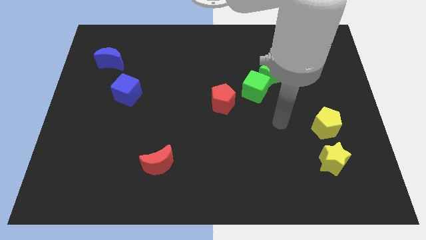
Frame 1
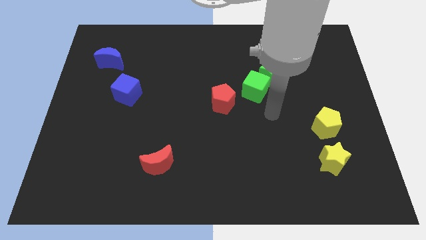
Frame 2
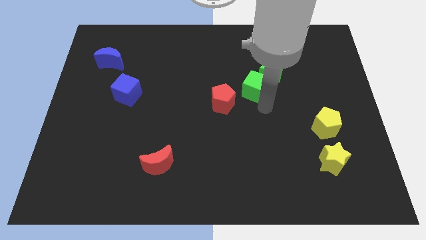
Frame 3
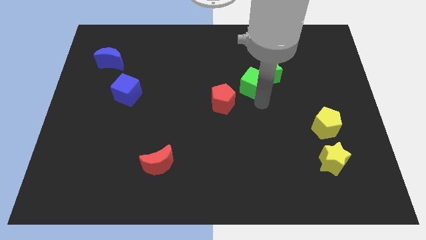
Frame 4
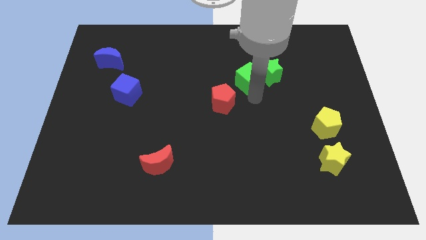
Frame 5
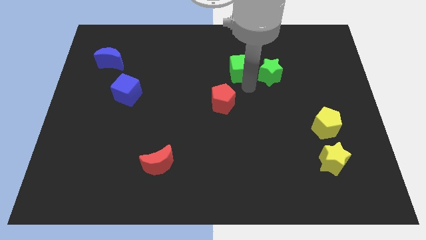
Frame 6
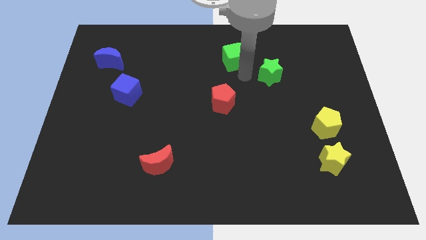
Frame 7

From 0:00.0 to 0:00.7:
separate the green star from the green cube

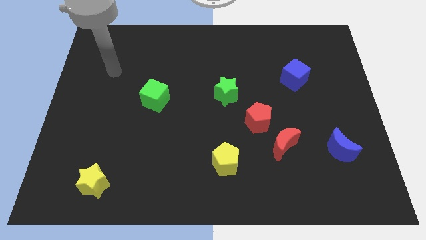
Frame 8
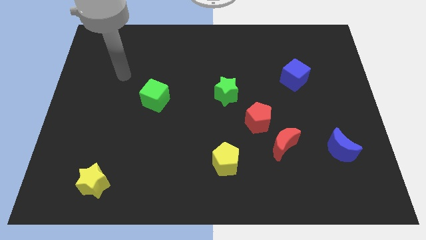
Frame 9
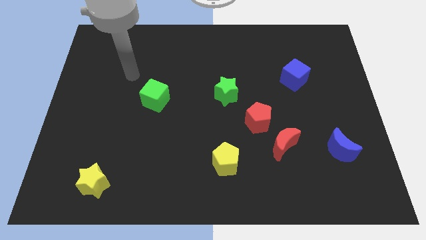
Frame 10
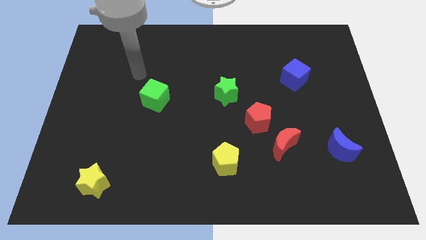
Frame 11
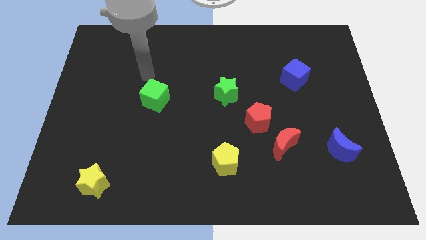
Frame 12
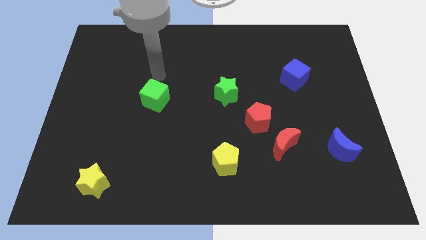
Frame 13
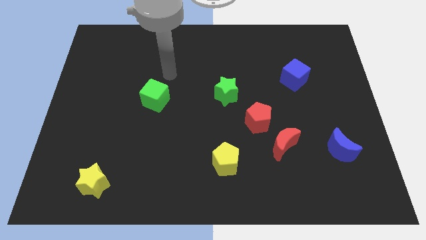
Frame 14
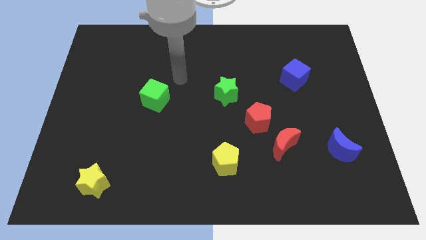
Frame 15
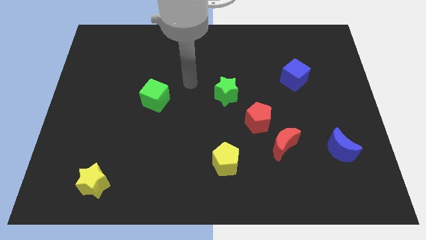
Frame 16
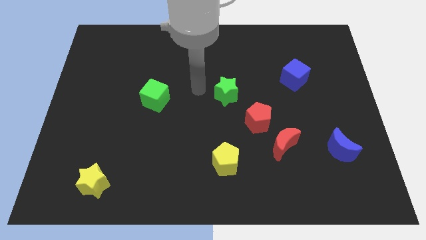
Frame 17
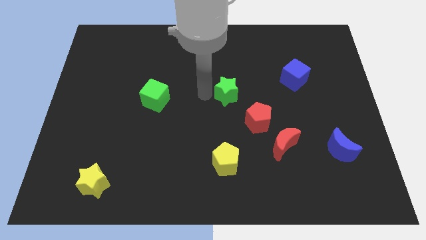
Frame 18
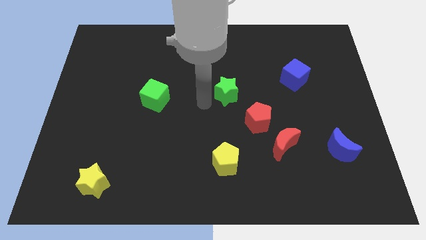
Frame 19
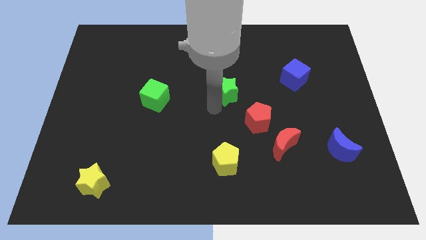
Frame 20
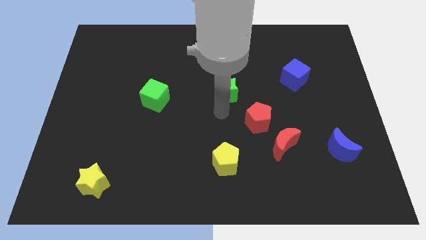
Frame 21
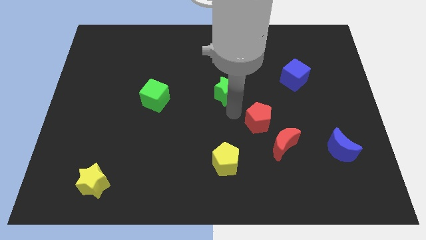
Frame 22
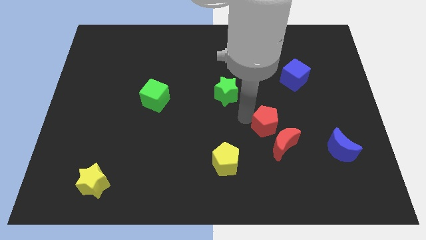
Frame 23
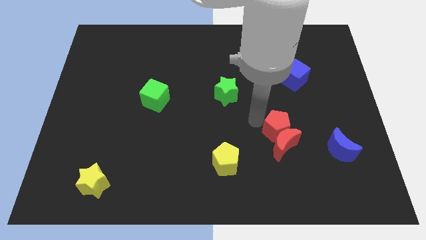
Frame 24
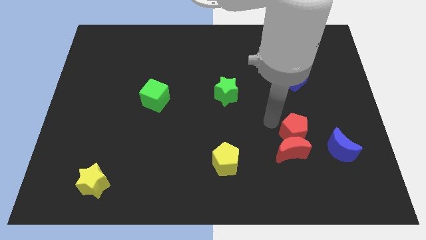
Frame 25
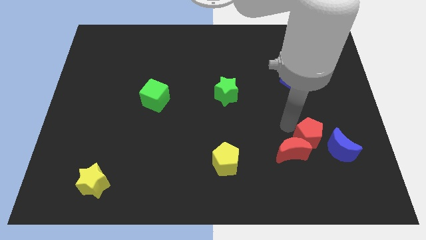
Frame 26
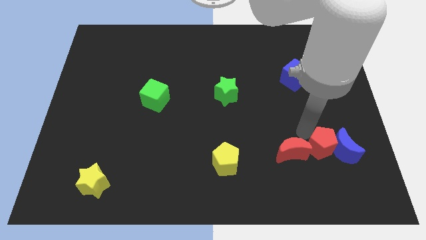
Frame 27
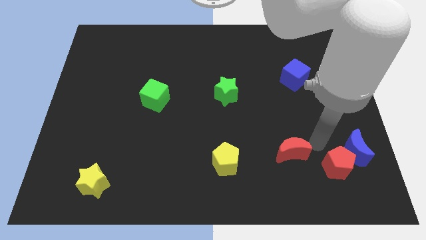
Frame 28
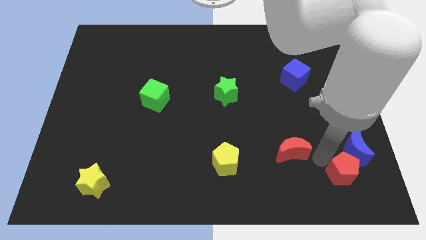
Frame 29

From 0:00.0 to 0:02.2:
separate the red moon from the red pentagon

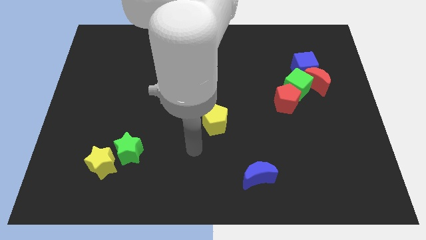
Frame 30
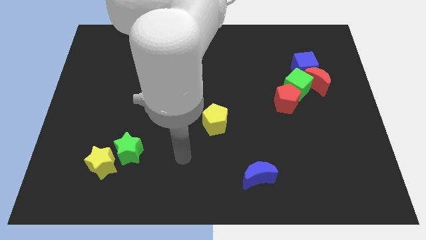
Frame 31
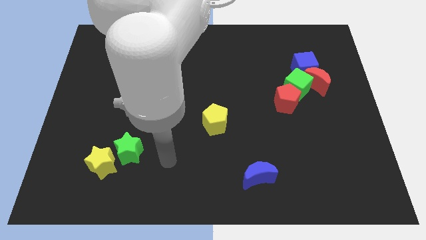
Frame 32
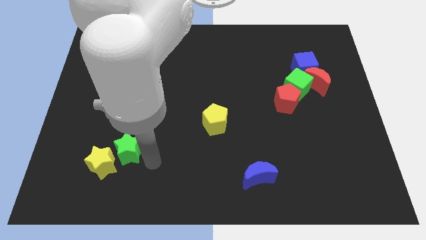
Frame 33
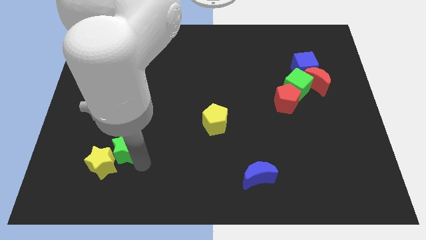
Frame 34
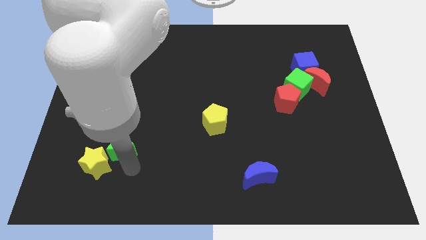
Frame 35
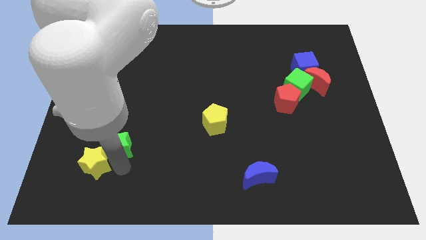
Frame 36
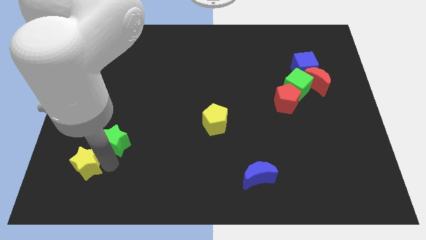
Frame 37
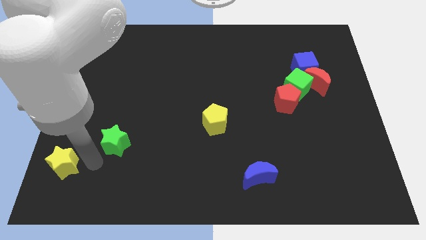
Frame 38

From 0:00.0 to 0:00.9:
move the green star away from the yellow star

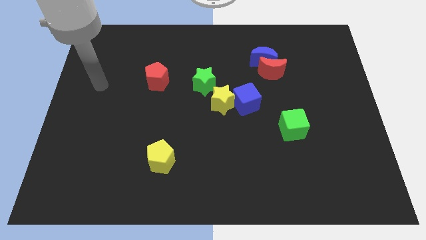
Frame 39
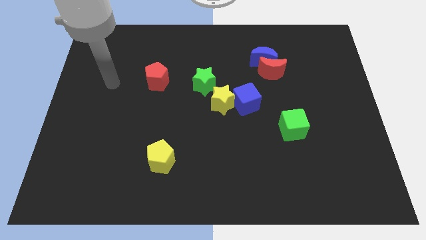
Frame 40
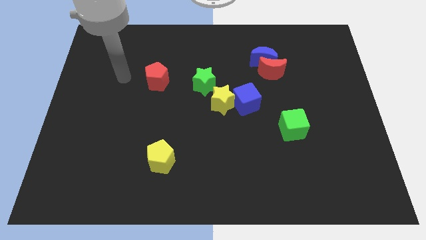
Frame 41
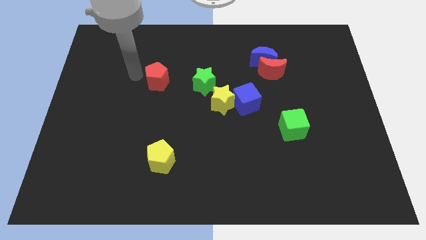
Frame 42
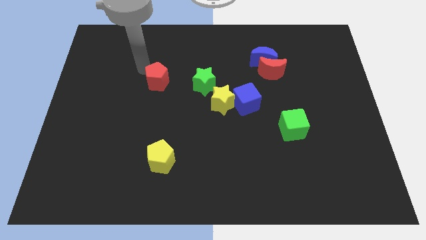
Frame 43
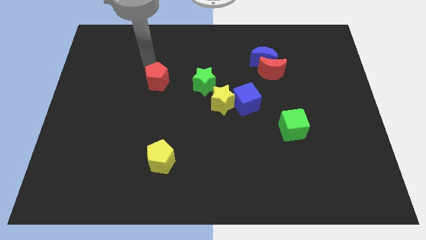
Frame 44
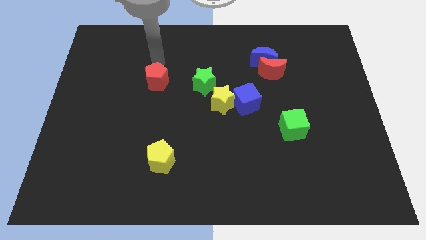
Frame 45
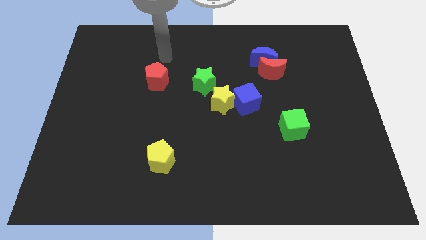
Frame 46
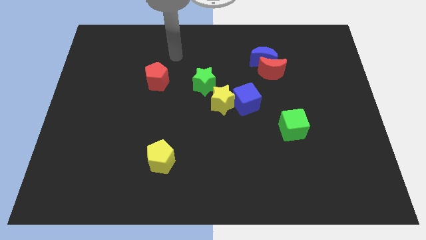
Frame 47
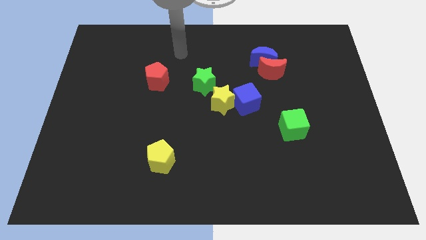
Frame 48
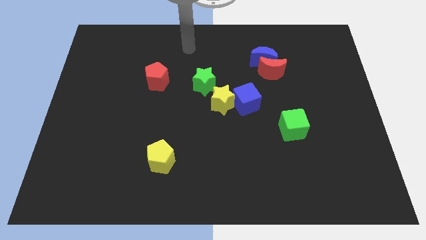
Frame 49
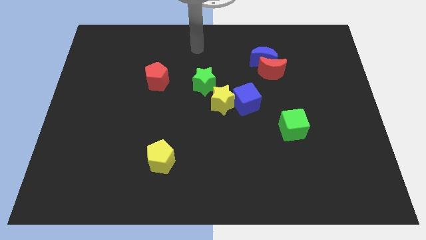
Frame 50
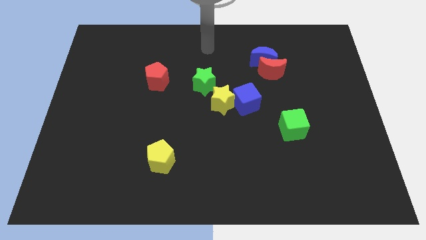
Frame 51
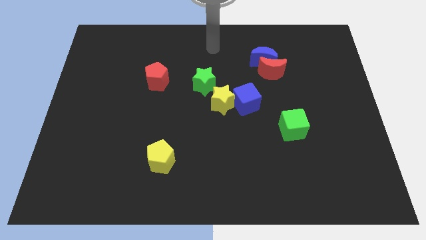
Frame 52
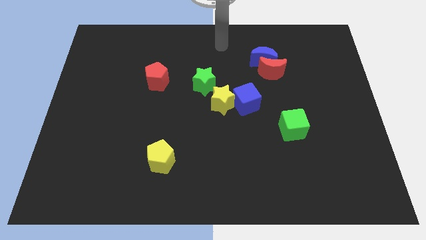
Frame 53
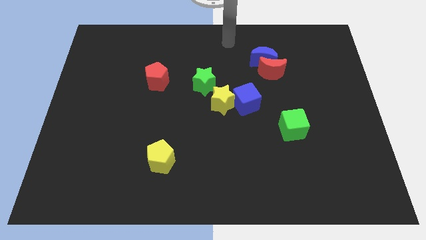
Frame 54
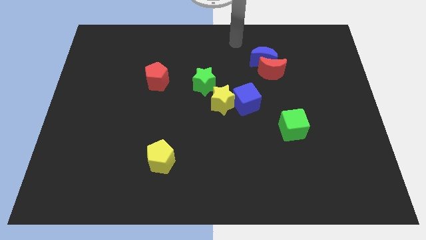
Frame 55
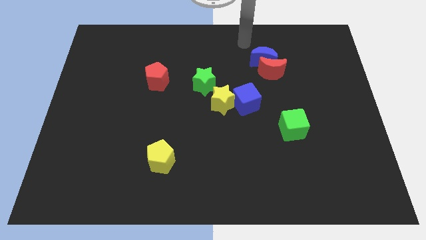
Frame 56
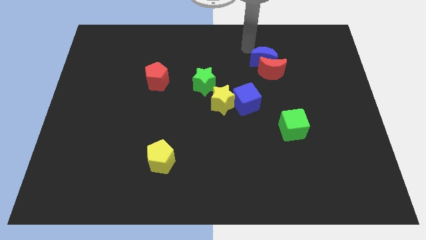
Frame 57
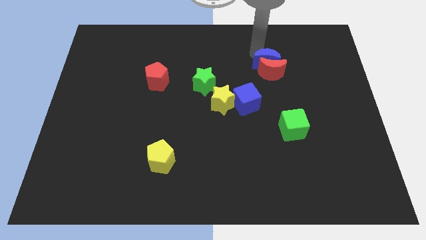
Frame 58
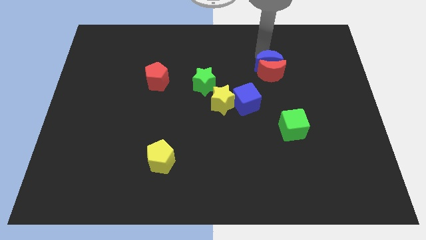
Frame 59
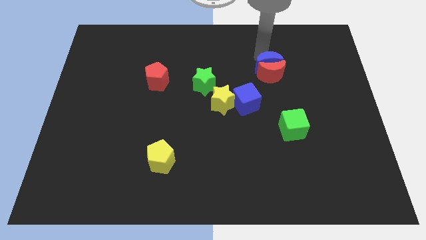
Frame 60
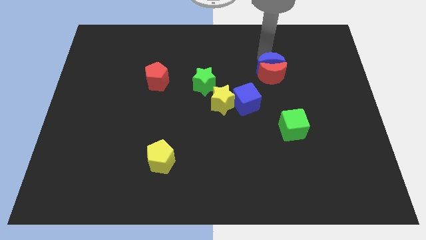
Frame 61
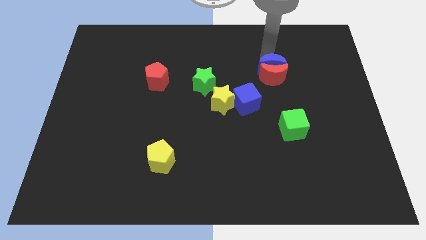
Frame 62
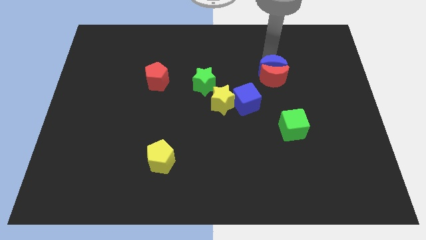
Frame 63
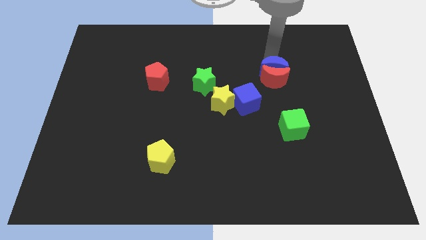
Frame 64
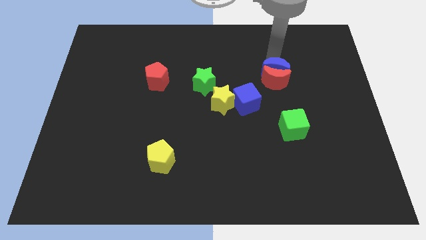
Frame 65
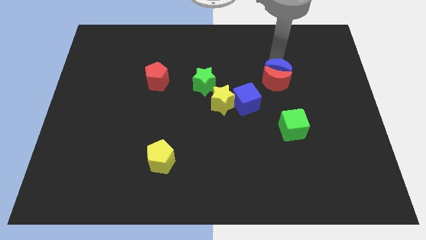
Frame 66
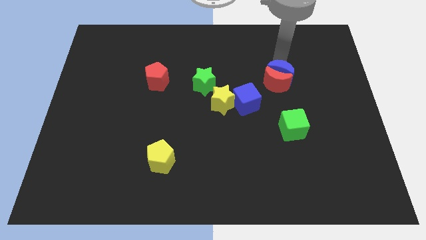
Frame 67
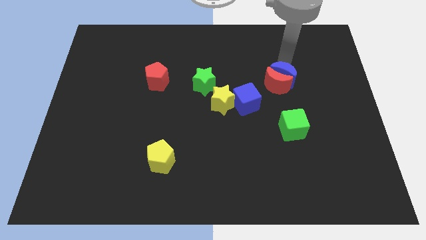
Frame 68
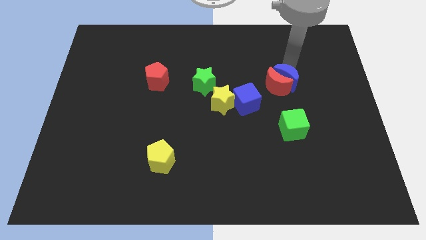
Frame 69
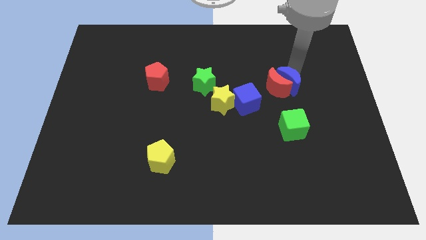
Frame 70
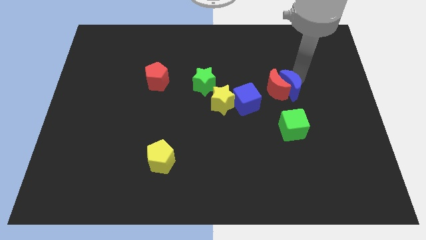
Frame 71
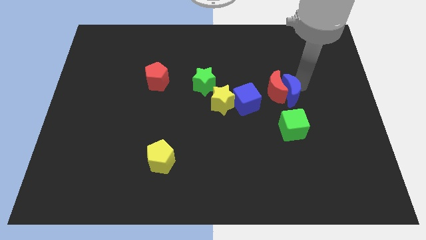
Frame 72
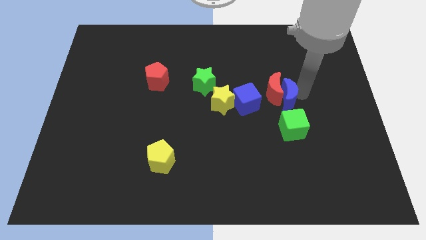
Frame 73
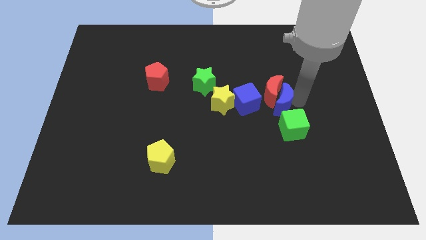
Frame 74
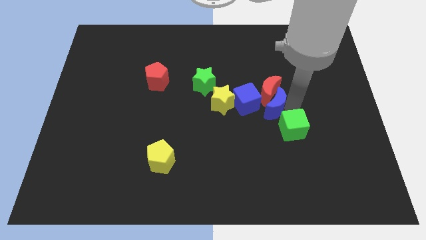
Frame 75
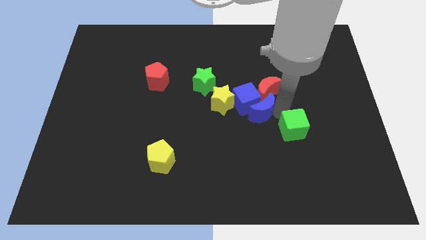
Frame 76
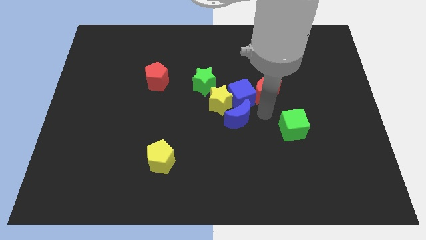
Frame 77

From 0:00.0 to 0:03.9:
move the red moon away from the blue moon

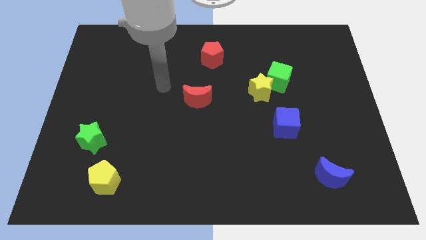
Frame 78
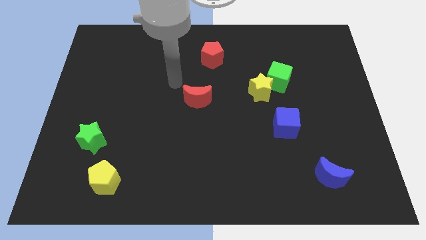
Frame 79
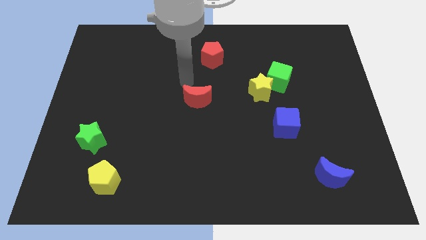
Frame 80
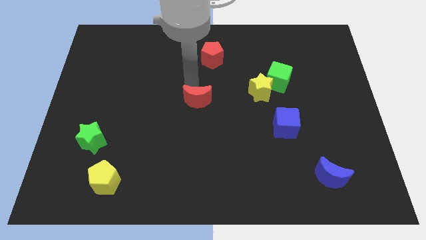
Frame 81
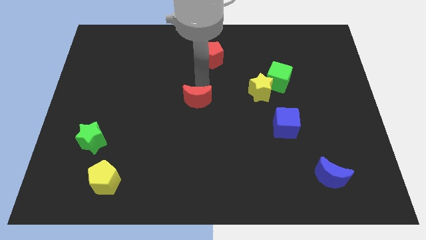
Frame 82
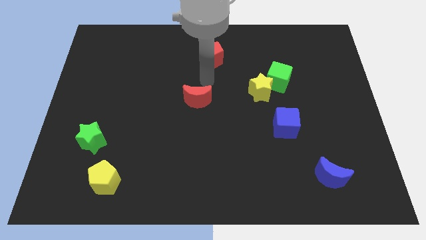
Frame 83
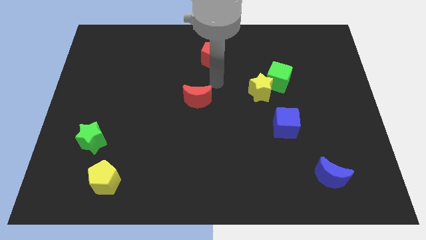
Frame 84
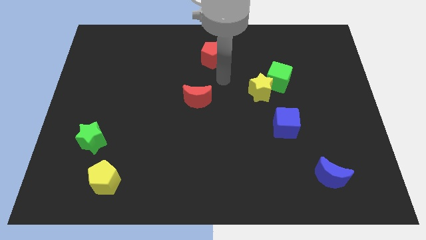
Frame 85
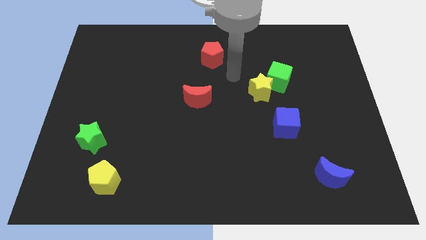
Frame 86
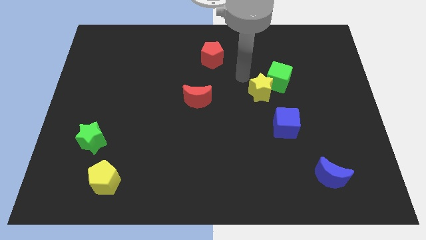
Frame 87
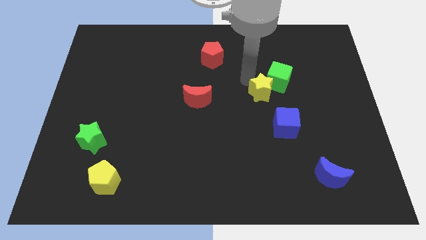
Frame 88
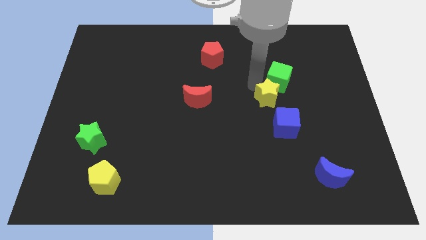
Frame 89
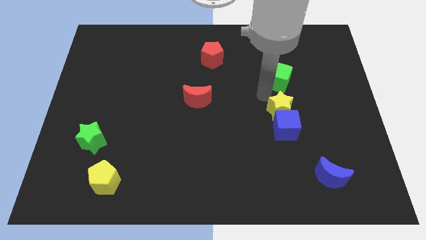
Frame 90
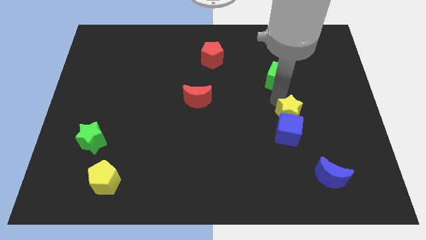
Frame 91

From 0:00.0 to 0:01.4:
move the green cube away from the yellow star

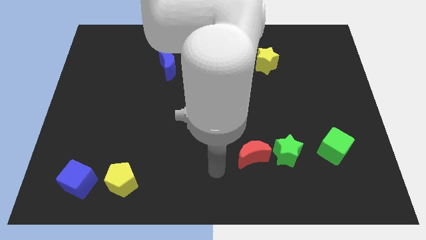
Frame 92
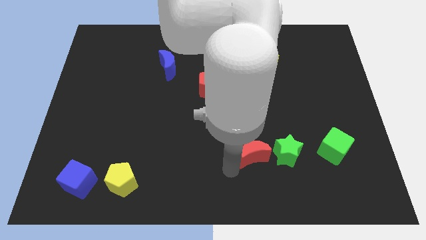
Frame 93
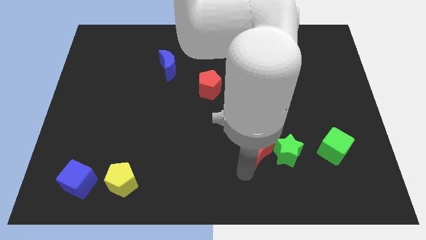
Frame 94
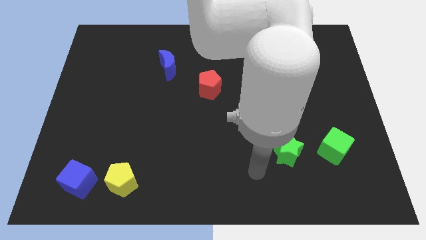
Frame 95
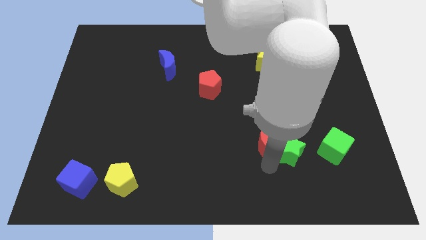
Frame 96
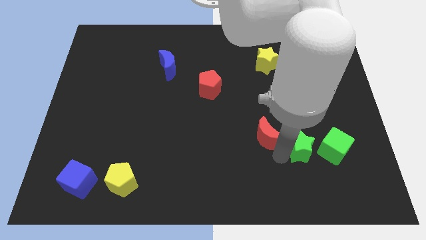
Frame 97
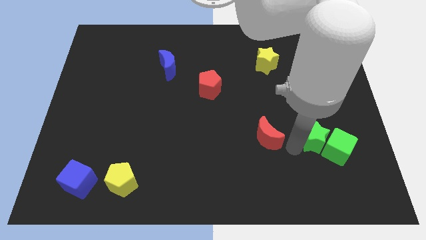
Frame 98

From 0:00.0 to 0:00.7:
move the red moon away from the green star
